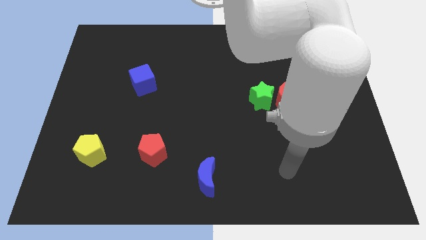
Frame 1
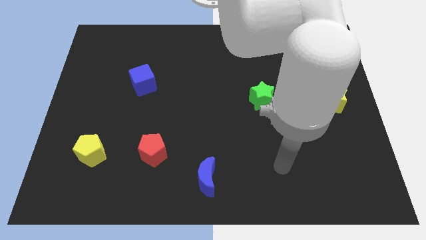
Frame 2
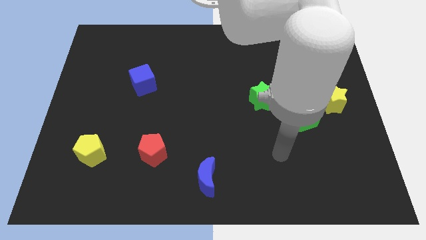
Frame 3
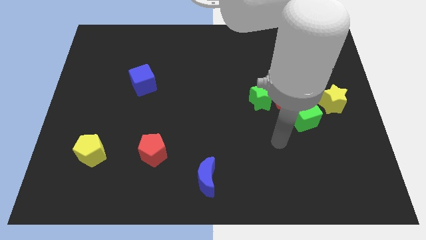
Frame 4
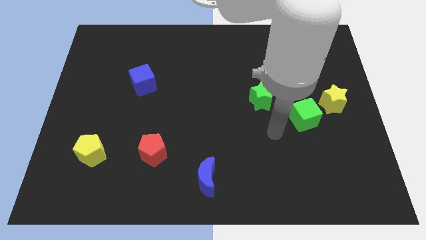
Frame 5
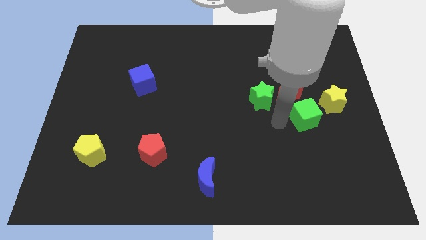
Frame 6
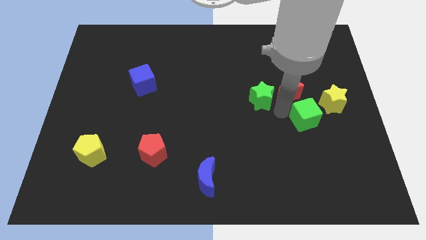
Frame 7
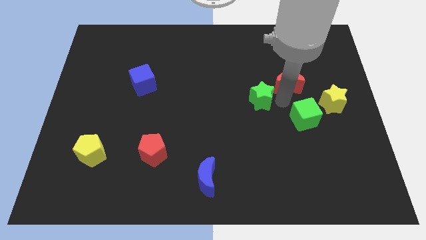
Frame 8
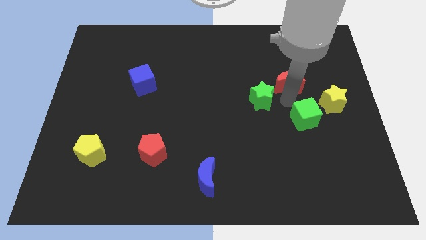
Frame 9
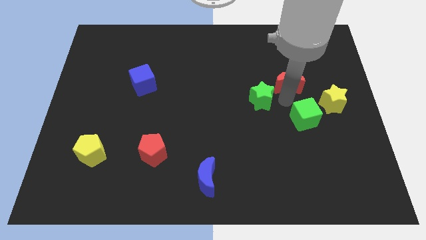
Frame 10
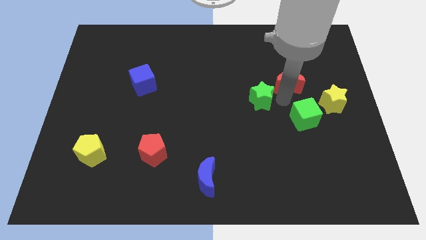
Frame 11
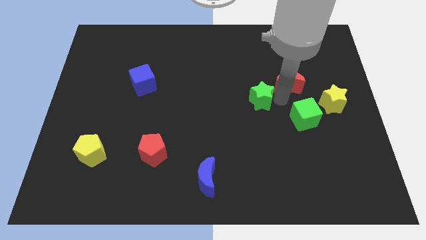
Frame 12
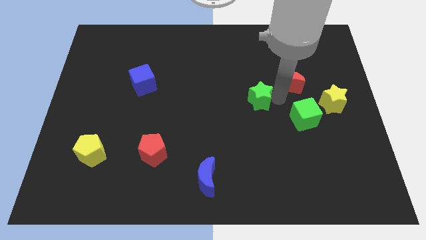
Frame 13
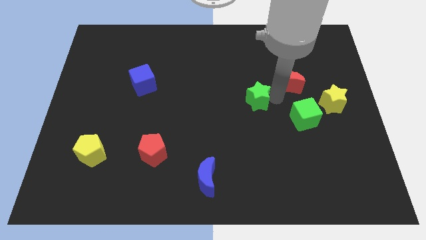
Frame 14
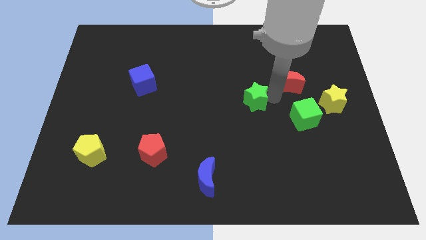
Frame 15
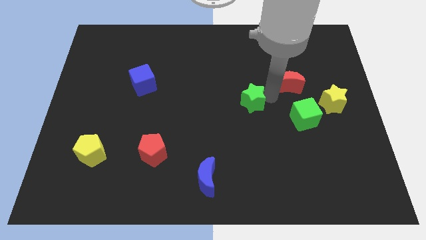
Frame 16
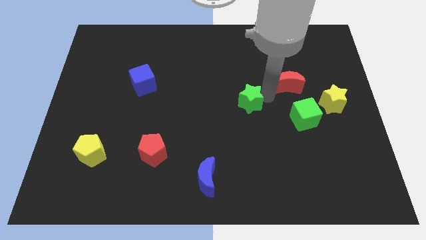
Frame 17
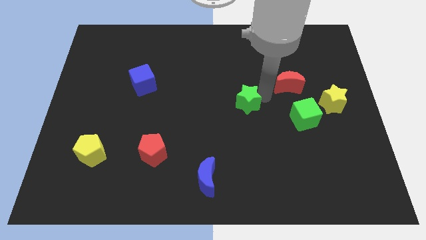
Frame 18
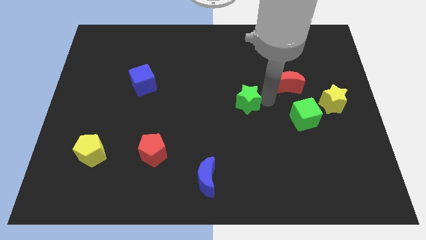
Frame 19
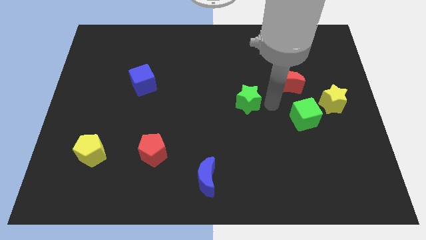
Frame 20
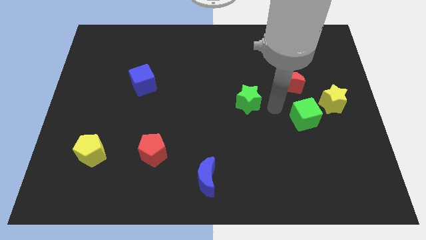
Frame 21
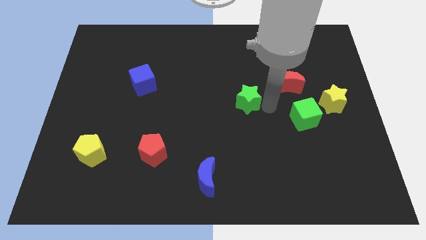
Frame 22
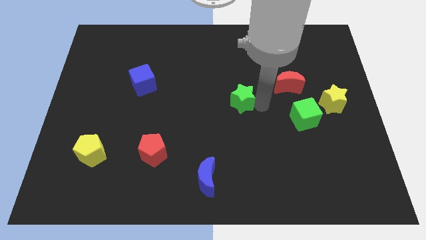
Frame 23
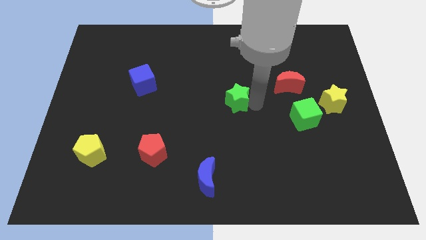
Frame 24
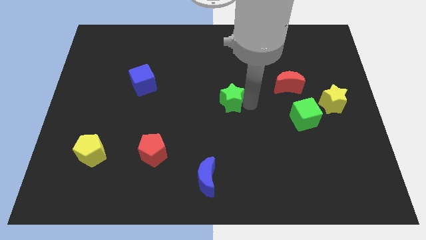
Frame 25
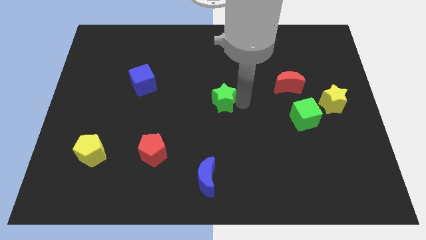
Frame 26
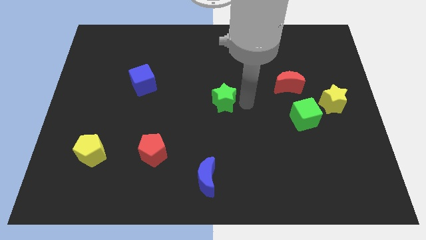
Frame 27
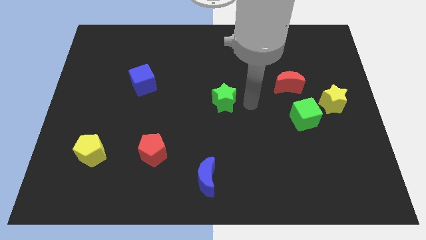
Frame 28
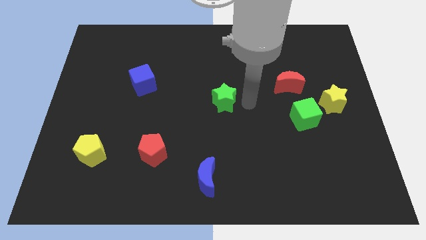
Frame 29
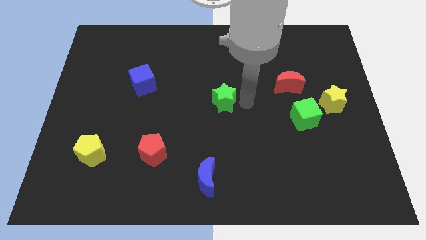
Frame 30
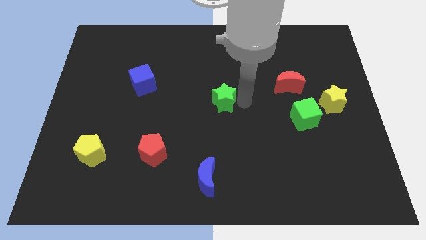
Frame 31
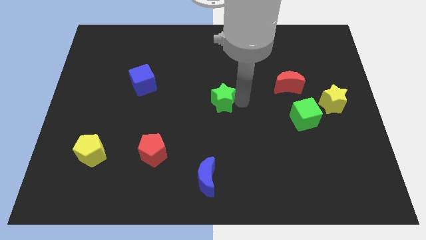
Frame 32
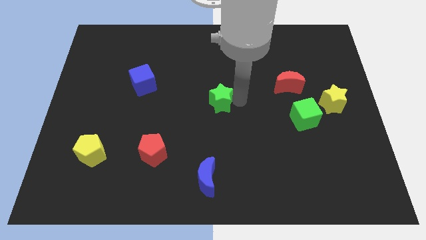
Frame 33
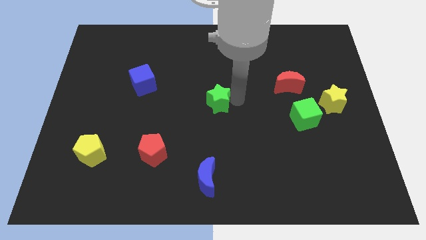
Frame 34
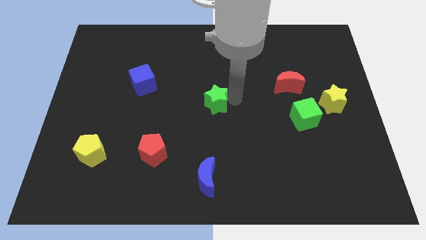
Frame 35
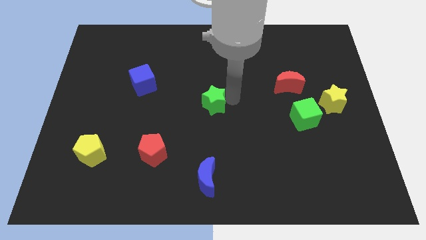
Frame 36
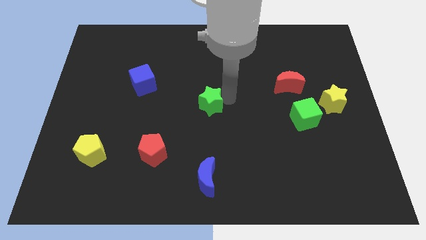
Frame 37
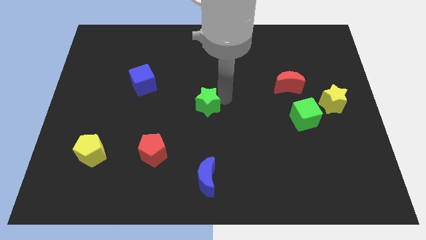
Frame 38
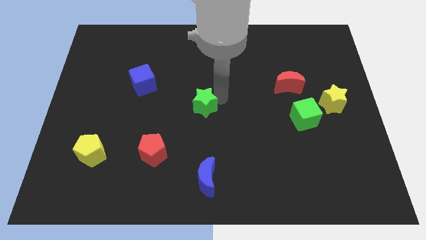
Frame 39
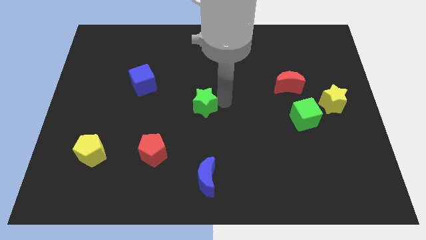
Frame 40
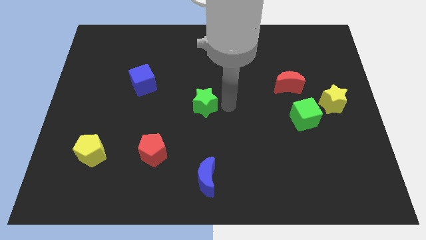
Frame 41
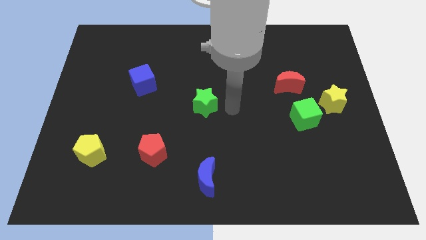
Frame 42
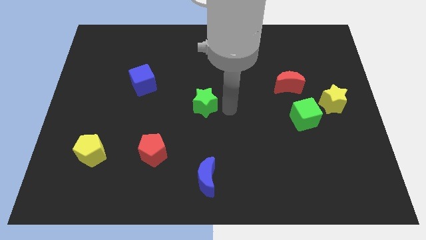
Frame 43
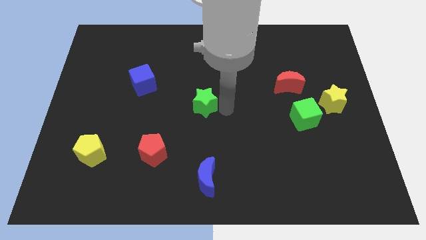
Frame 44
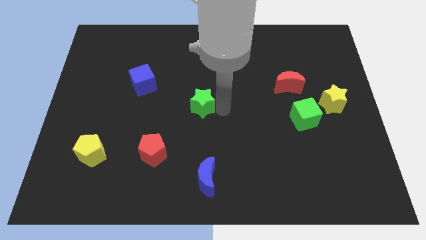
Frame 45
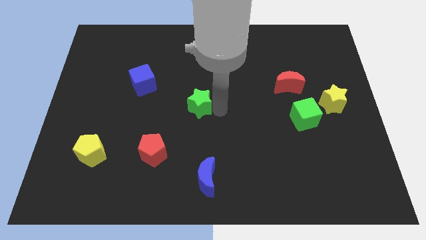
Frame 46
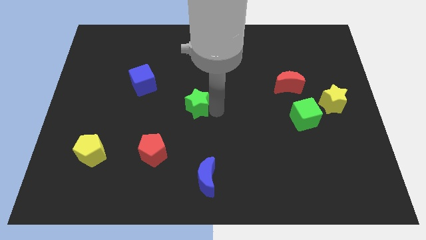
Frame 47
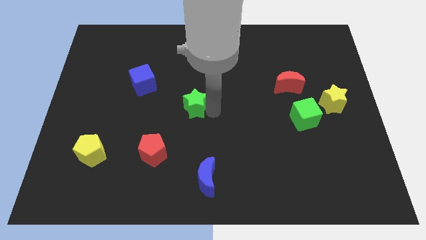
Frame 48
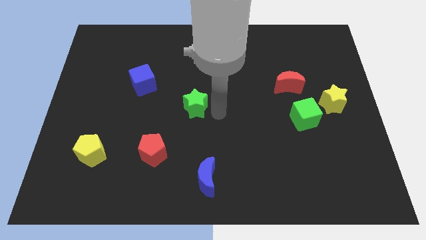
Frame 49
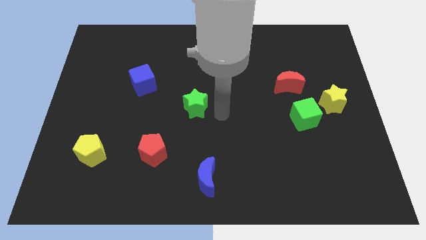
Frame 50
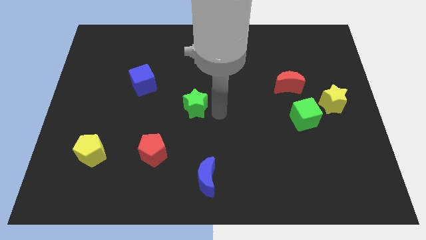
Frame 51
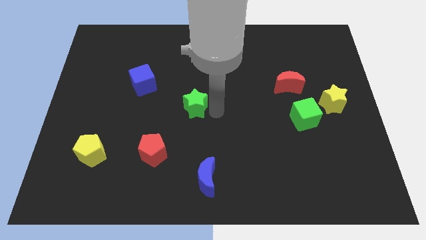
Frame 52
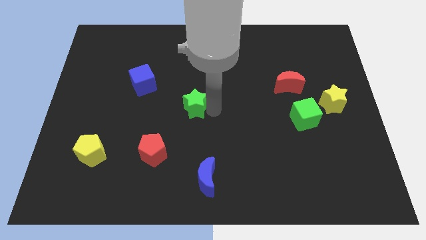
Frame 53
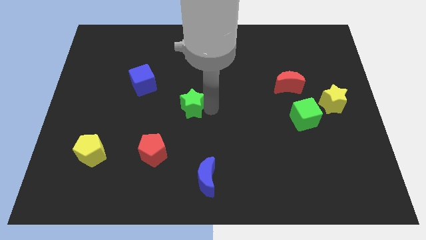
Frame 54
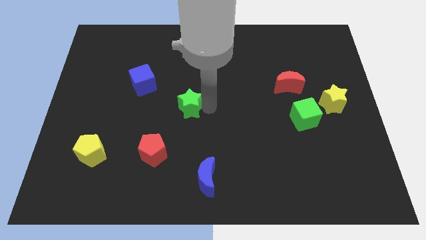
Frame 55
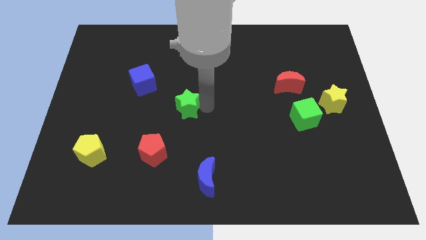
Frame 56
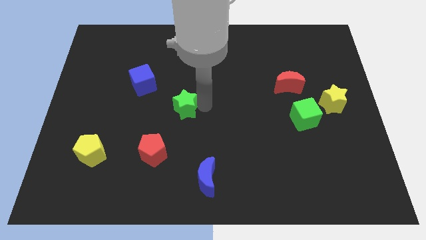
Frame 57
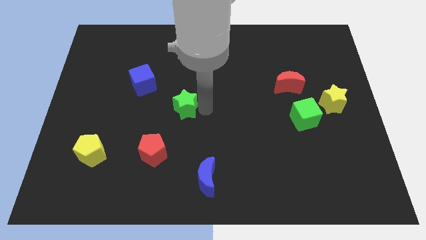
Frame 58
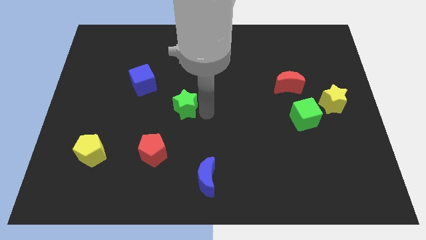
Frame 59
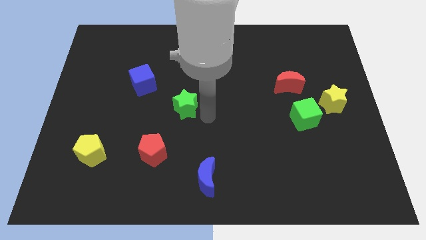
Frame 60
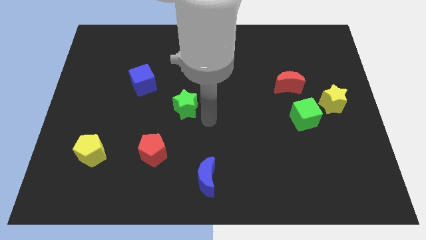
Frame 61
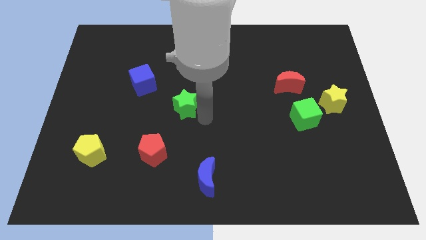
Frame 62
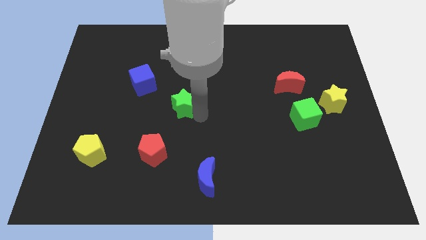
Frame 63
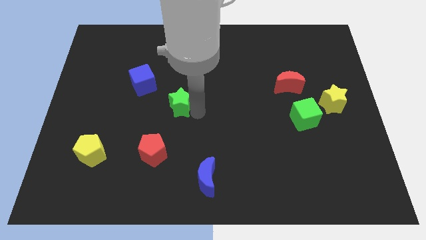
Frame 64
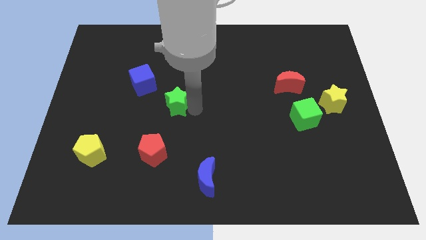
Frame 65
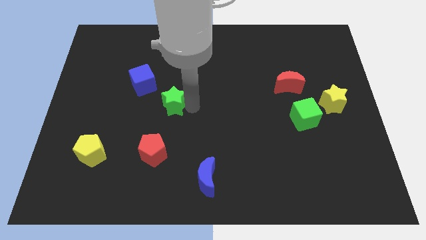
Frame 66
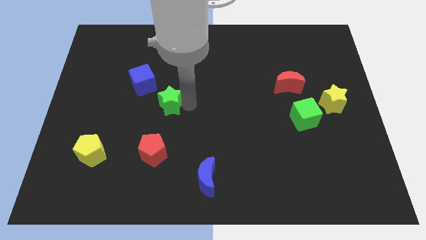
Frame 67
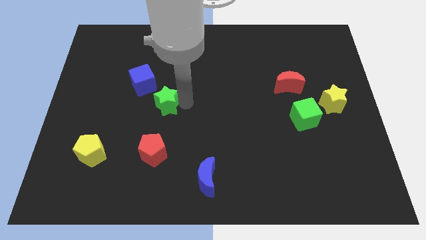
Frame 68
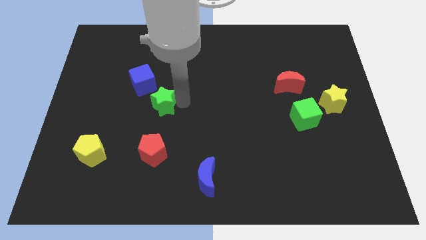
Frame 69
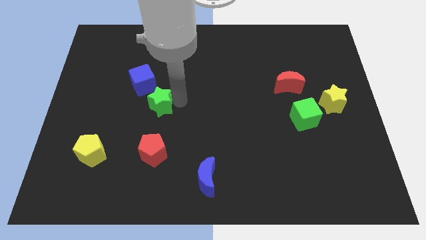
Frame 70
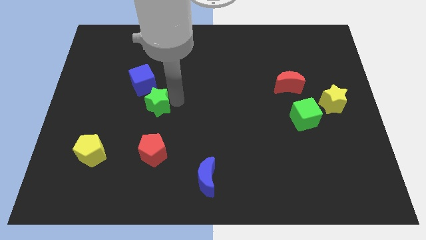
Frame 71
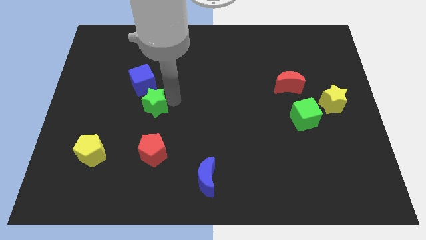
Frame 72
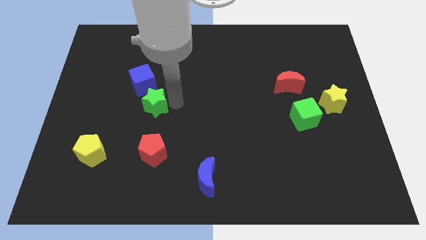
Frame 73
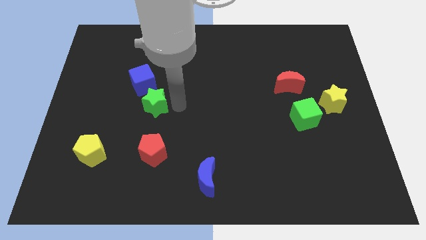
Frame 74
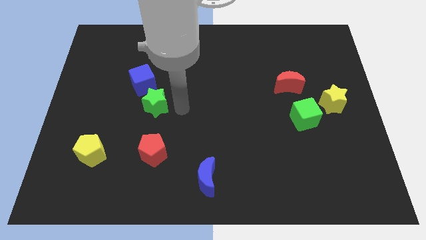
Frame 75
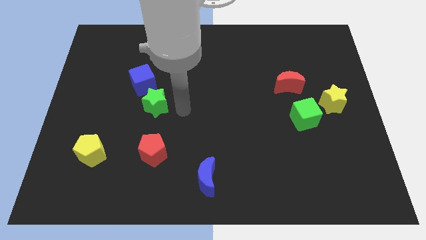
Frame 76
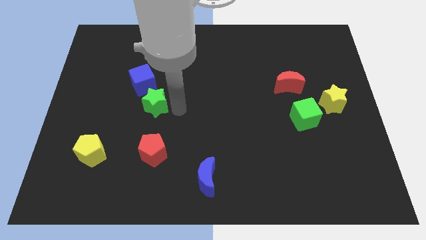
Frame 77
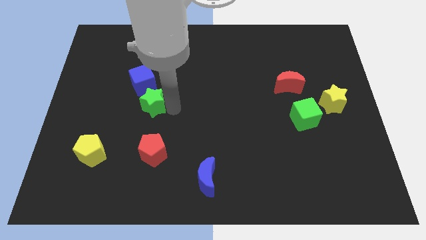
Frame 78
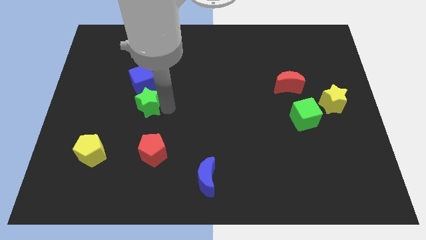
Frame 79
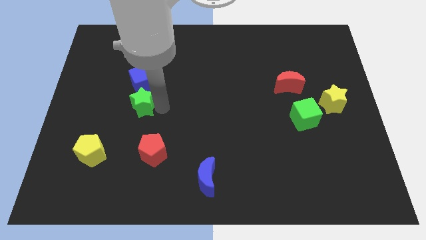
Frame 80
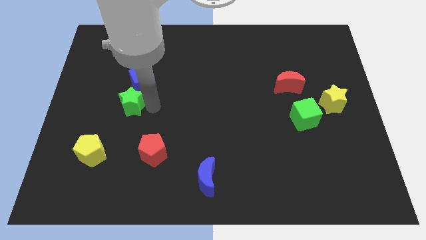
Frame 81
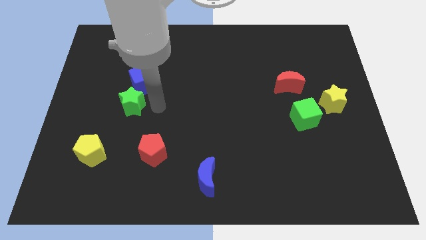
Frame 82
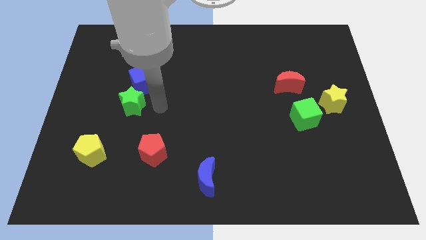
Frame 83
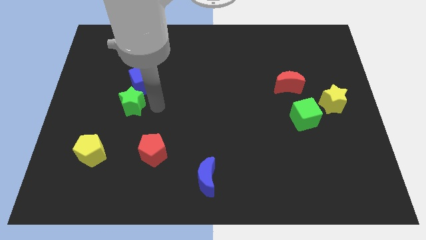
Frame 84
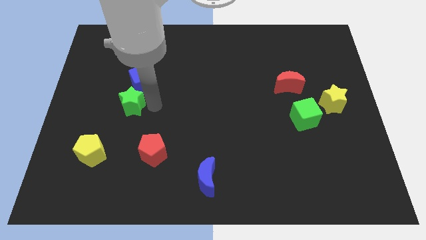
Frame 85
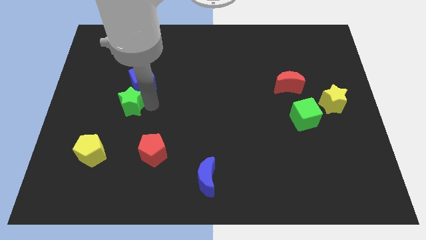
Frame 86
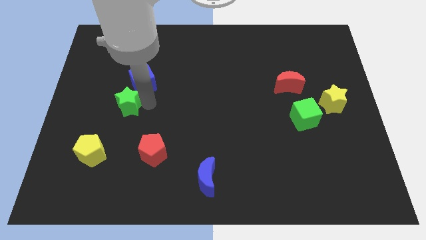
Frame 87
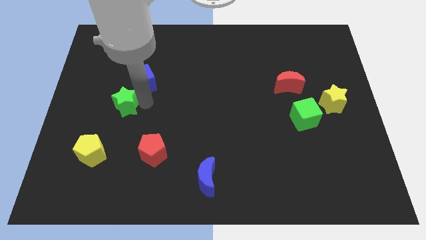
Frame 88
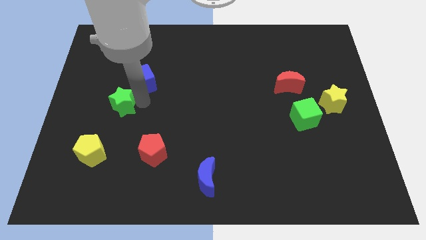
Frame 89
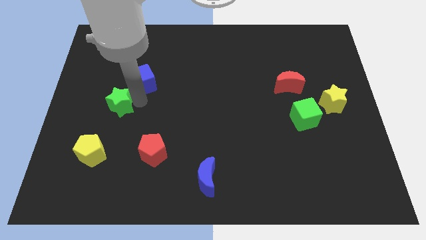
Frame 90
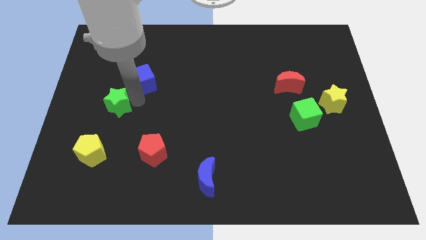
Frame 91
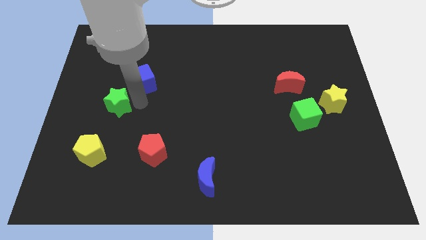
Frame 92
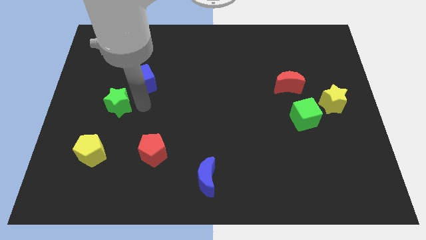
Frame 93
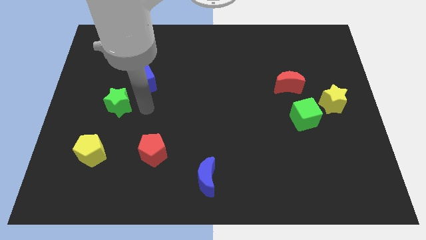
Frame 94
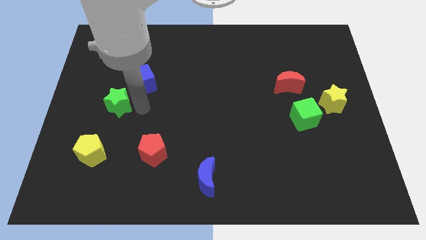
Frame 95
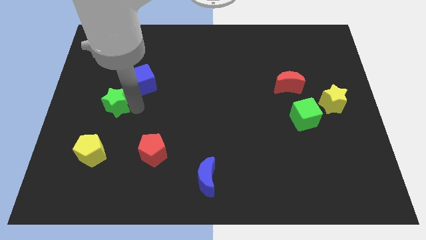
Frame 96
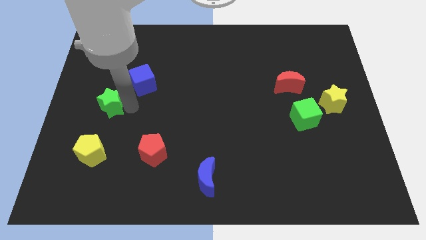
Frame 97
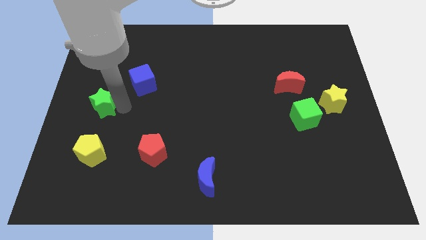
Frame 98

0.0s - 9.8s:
move the green star to the center left
